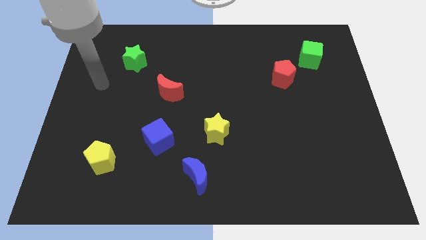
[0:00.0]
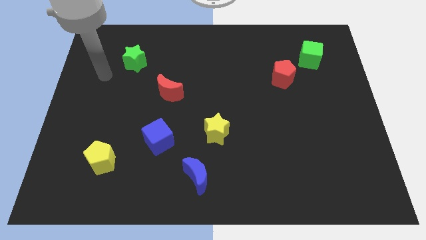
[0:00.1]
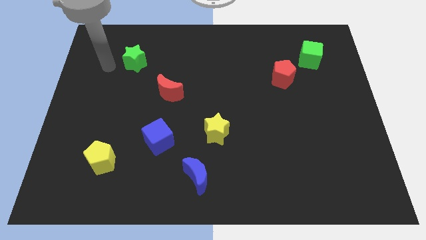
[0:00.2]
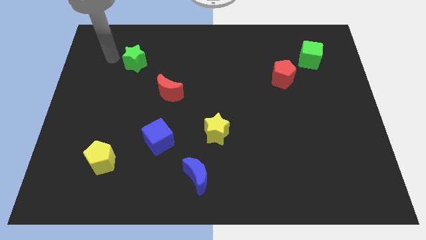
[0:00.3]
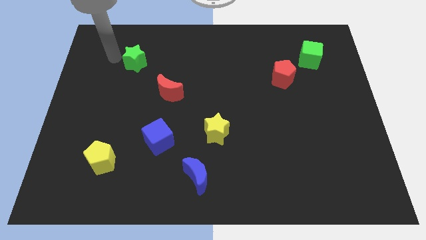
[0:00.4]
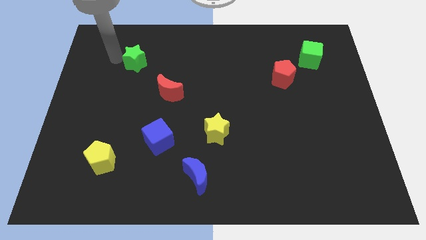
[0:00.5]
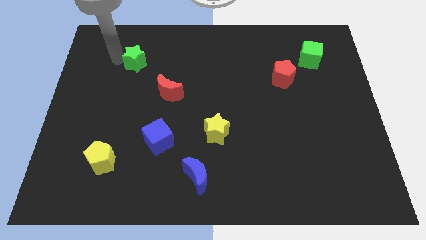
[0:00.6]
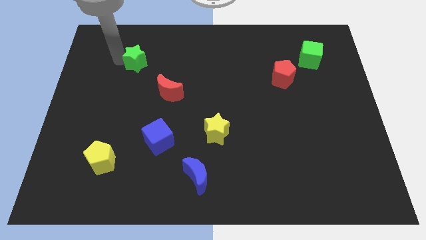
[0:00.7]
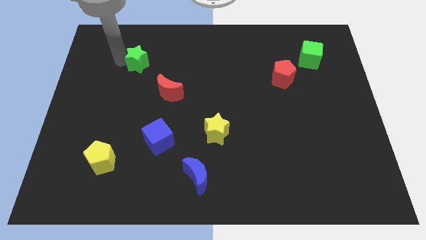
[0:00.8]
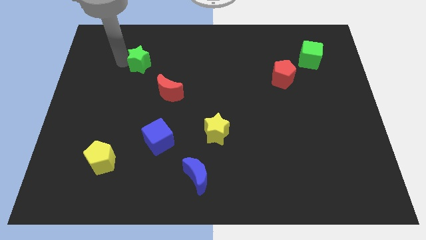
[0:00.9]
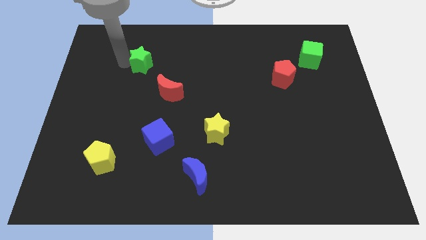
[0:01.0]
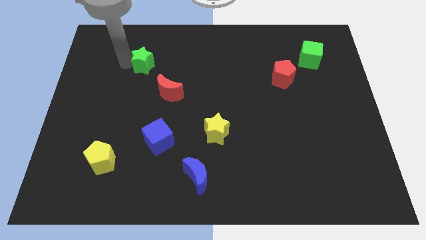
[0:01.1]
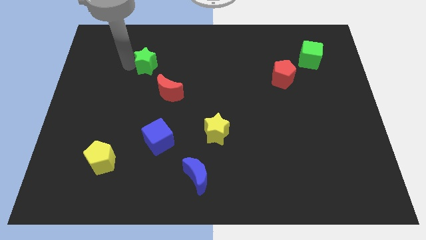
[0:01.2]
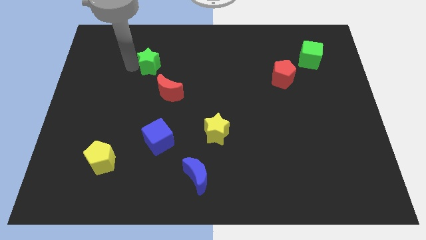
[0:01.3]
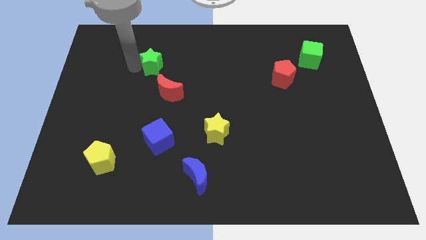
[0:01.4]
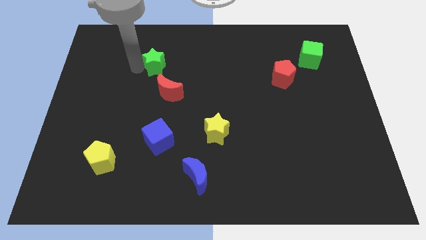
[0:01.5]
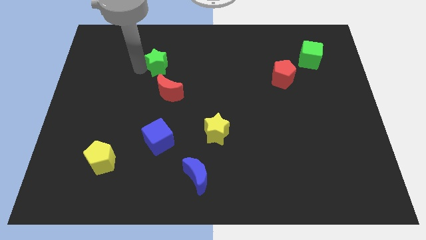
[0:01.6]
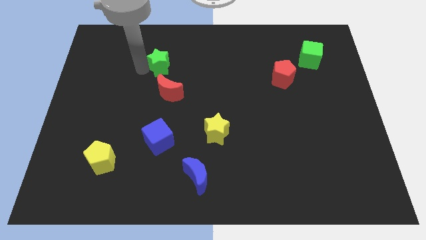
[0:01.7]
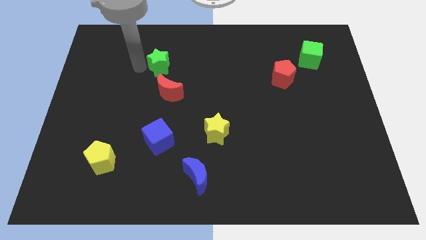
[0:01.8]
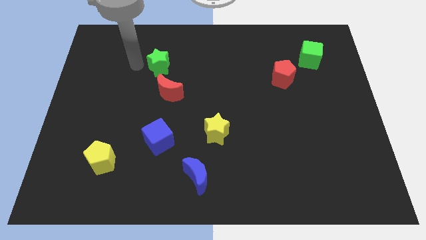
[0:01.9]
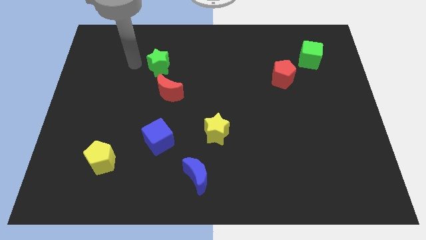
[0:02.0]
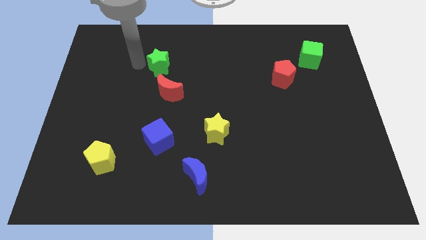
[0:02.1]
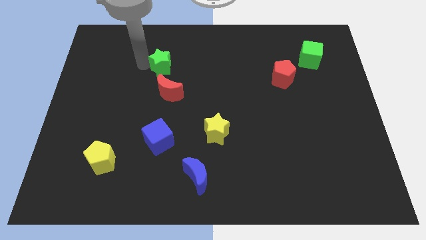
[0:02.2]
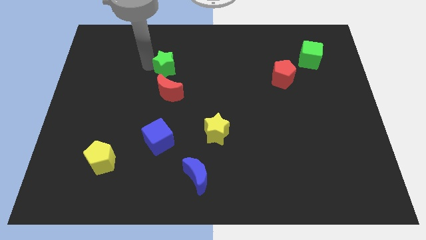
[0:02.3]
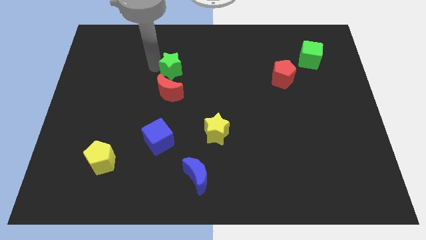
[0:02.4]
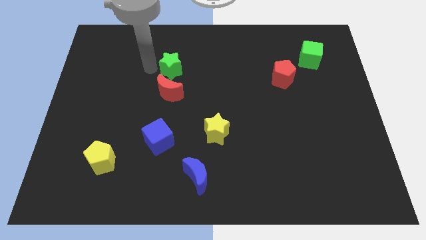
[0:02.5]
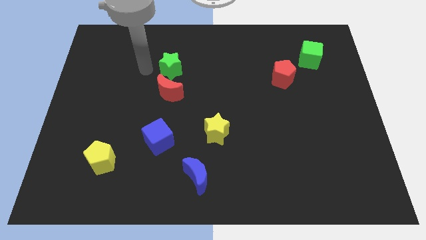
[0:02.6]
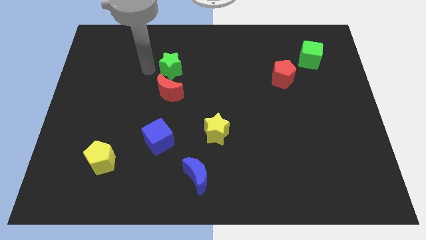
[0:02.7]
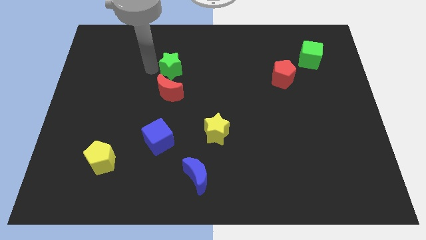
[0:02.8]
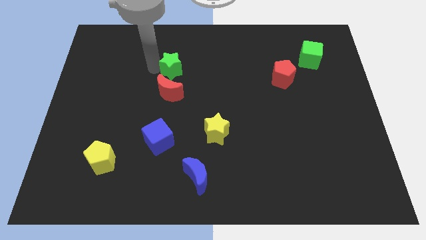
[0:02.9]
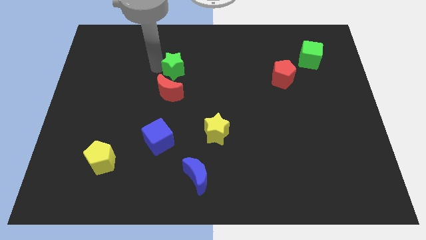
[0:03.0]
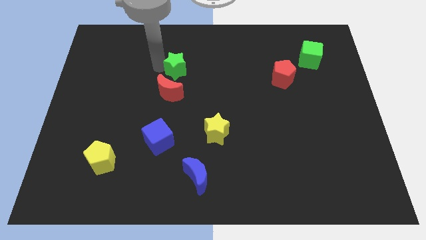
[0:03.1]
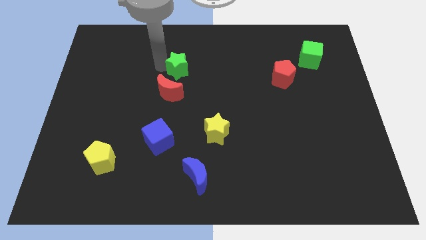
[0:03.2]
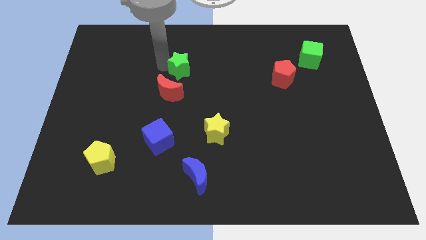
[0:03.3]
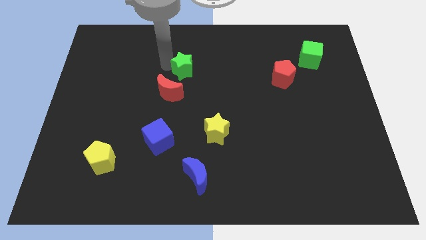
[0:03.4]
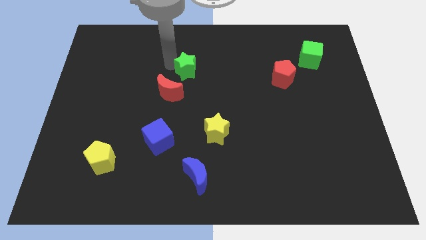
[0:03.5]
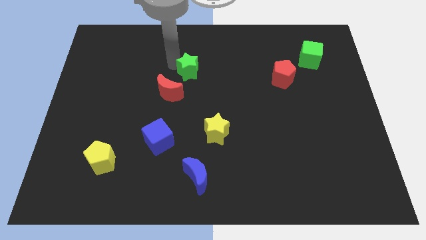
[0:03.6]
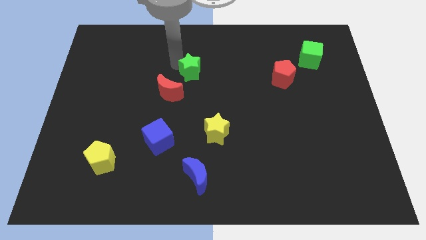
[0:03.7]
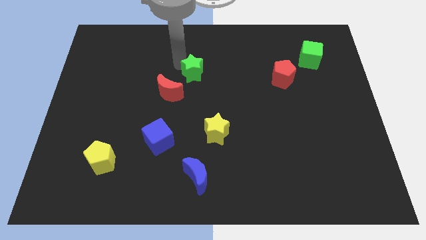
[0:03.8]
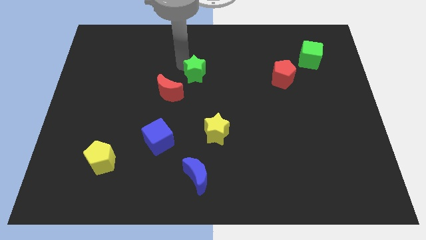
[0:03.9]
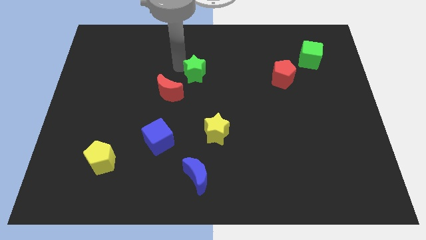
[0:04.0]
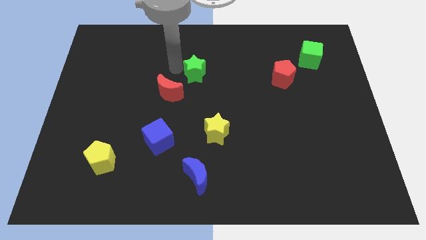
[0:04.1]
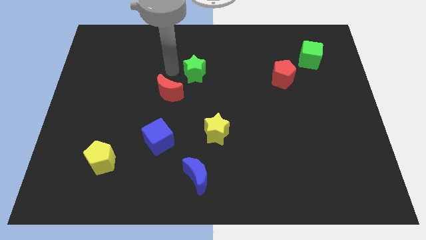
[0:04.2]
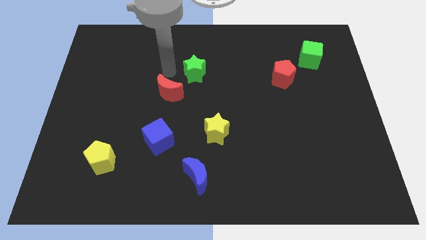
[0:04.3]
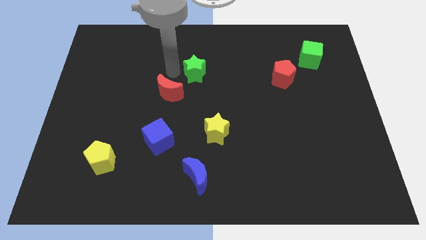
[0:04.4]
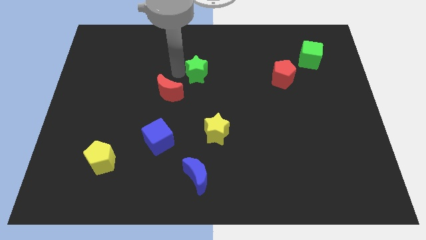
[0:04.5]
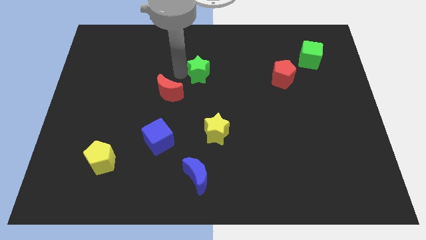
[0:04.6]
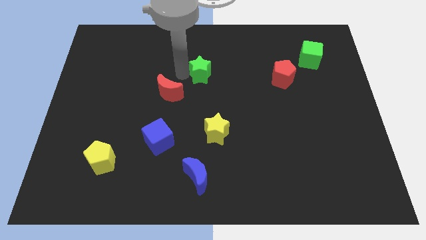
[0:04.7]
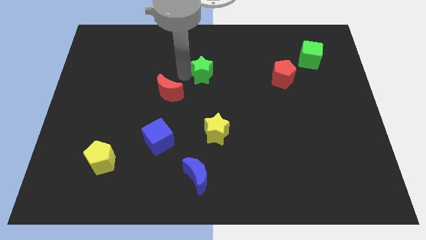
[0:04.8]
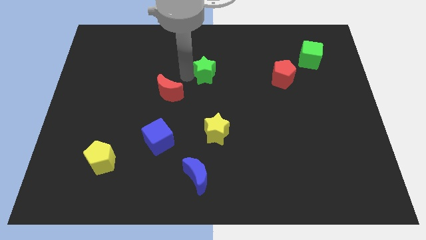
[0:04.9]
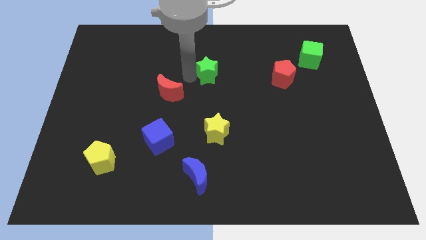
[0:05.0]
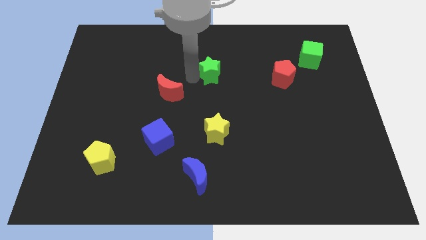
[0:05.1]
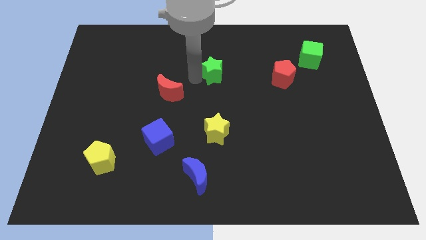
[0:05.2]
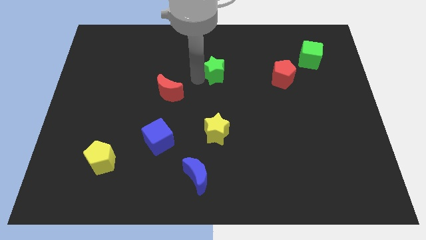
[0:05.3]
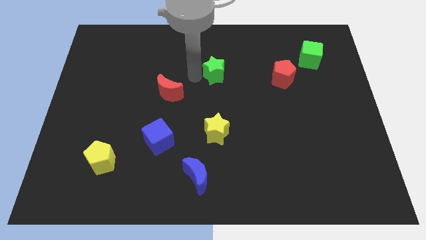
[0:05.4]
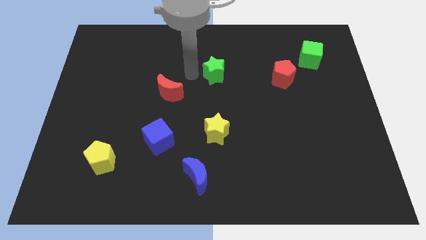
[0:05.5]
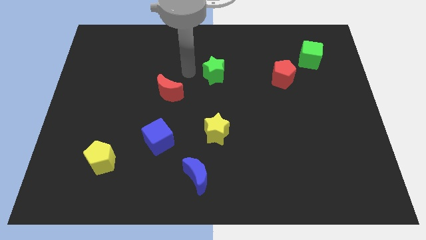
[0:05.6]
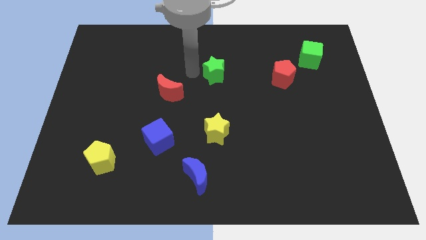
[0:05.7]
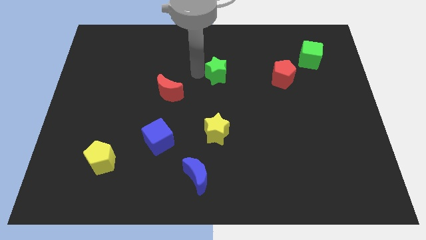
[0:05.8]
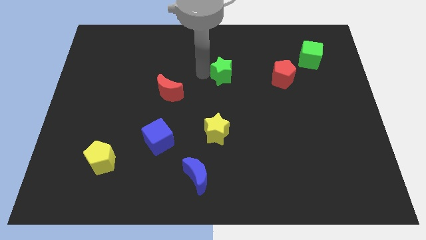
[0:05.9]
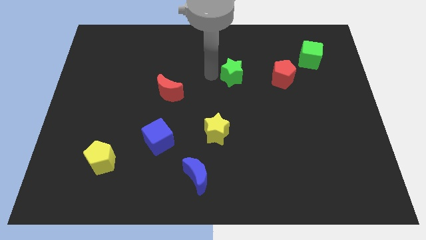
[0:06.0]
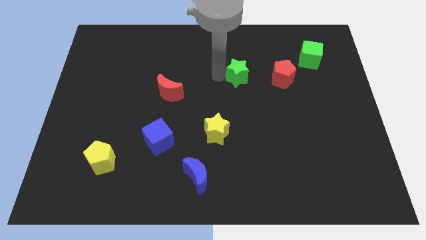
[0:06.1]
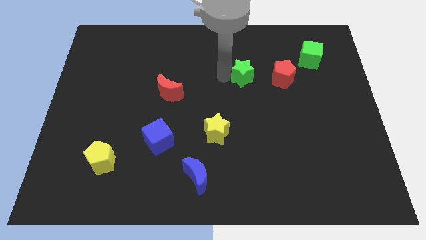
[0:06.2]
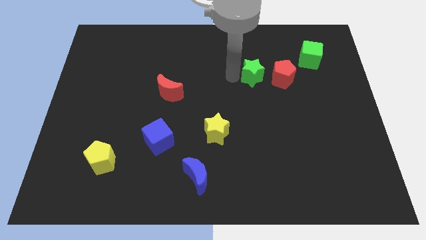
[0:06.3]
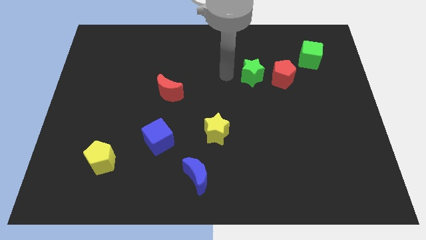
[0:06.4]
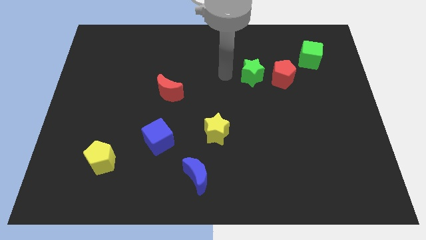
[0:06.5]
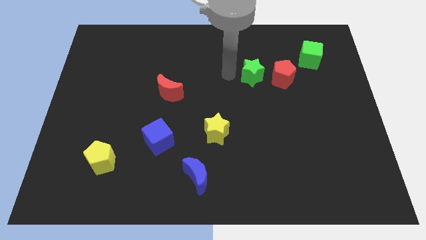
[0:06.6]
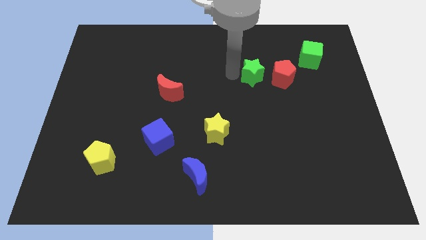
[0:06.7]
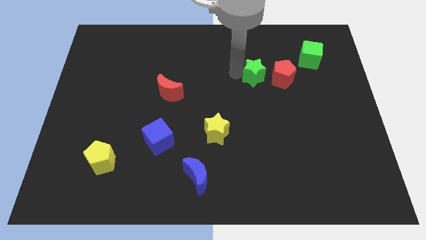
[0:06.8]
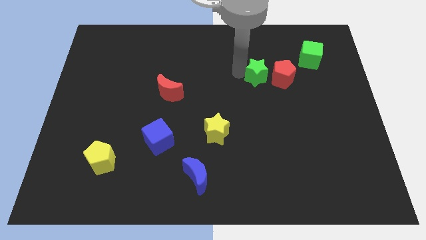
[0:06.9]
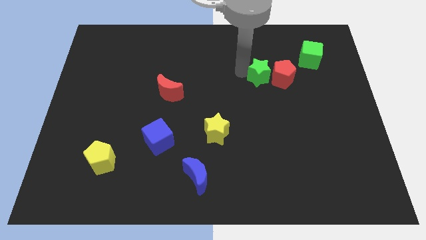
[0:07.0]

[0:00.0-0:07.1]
push the green star close to the red pentagon

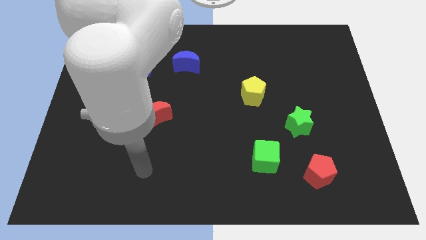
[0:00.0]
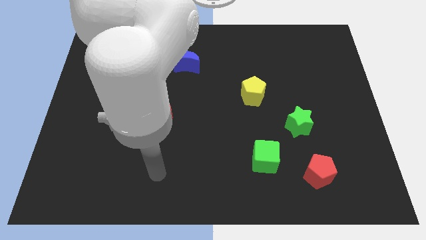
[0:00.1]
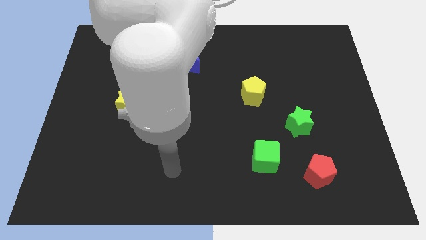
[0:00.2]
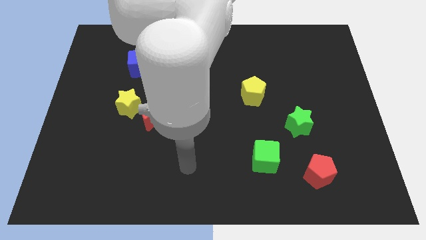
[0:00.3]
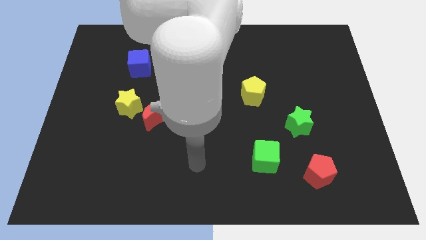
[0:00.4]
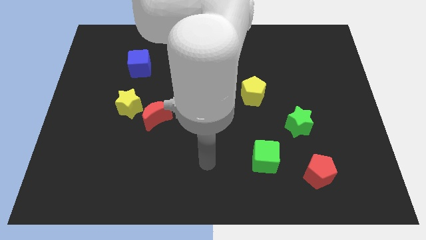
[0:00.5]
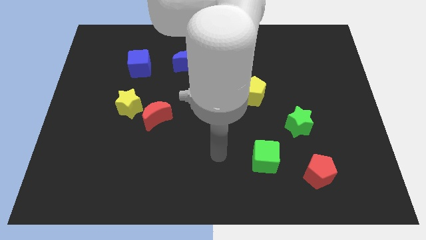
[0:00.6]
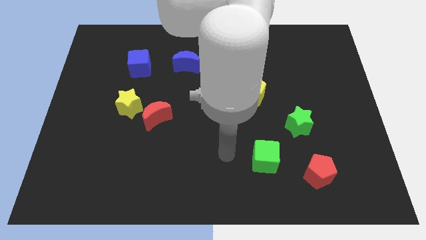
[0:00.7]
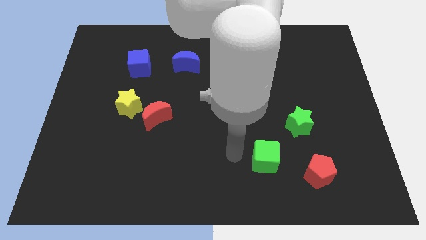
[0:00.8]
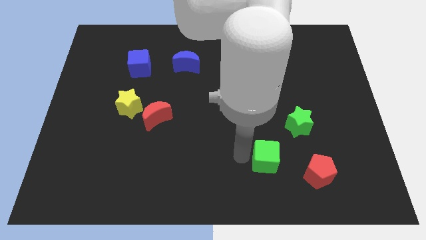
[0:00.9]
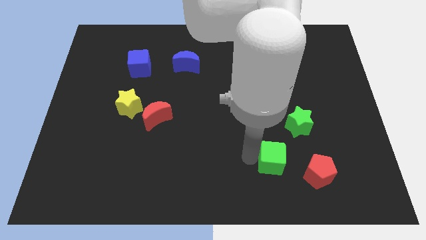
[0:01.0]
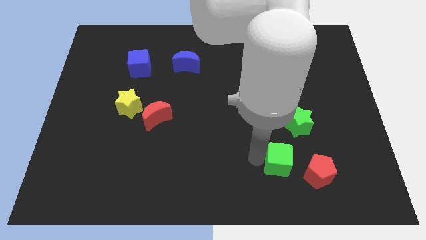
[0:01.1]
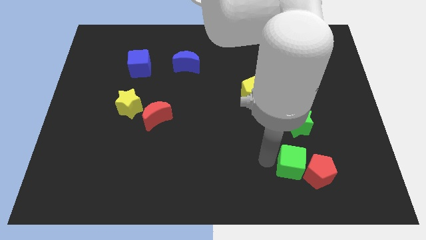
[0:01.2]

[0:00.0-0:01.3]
put the green cube close to the red pentagon
